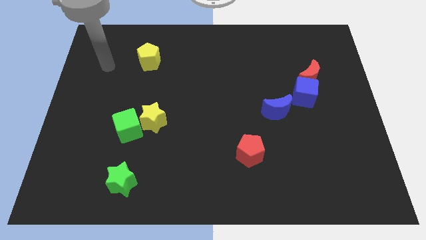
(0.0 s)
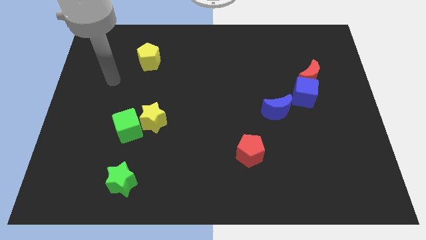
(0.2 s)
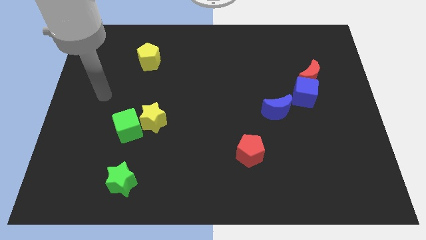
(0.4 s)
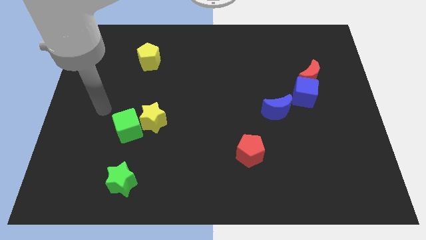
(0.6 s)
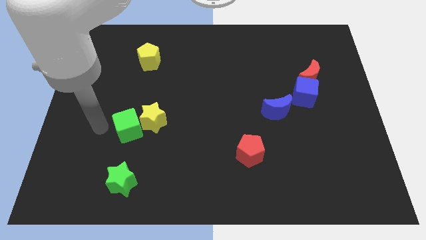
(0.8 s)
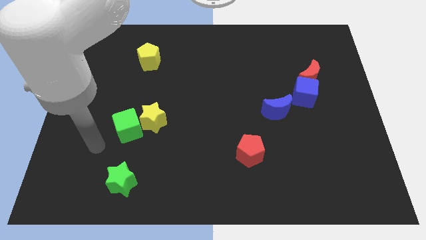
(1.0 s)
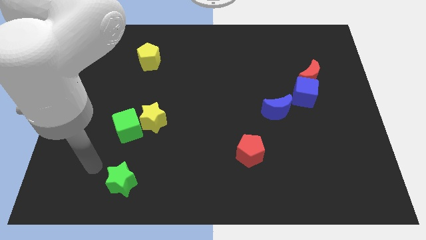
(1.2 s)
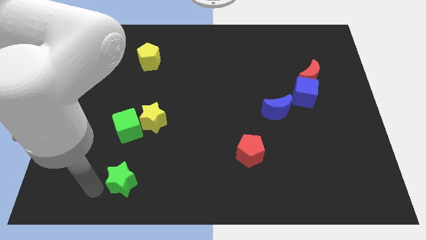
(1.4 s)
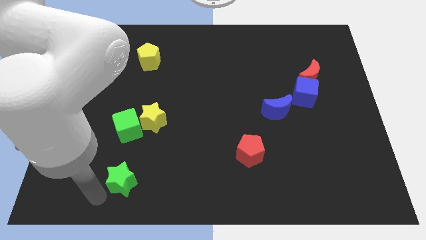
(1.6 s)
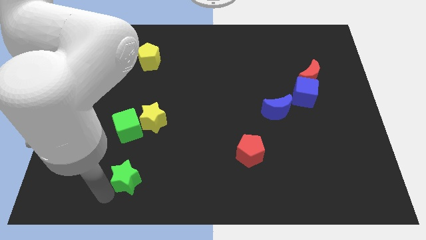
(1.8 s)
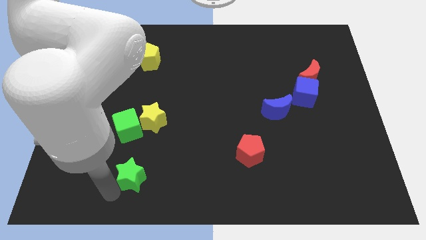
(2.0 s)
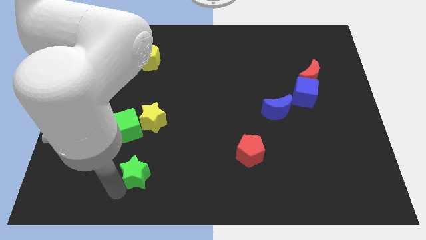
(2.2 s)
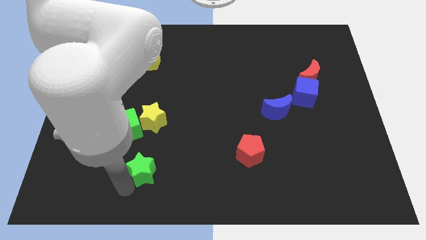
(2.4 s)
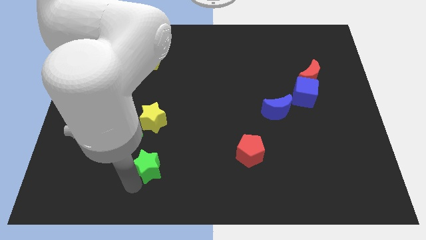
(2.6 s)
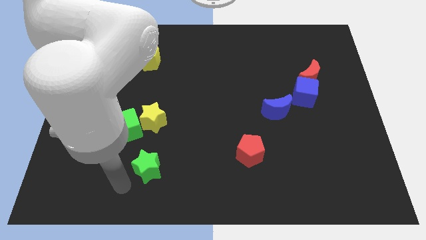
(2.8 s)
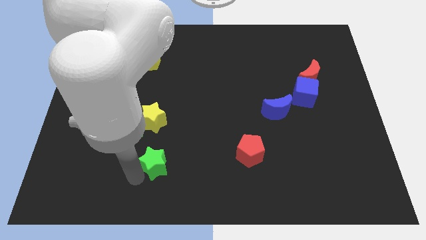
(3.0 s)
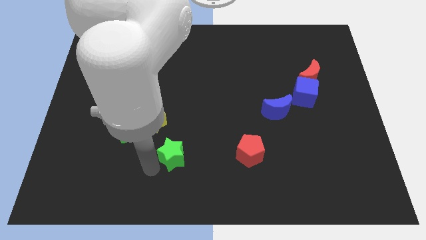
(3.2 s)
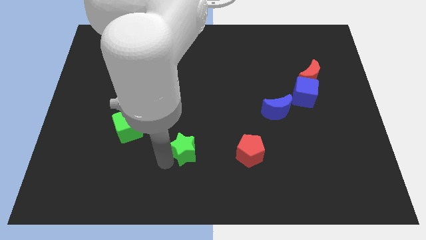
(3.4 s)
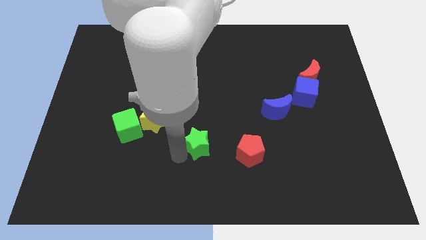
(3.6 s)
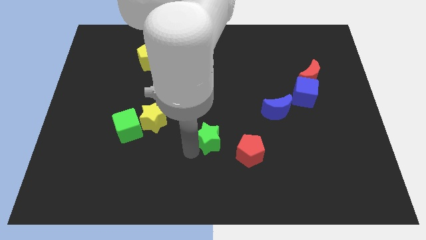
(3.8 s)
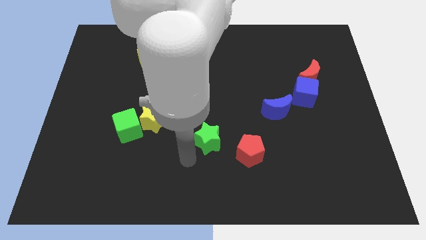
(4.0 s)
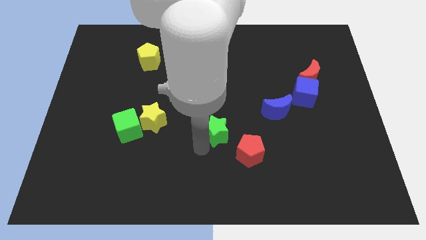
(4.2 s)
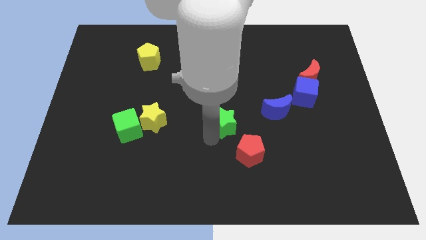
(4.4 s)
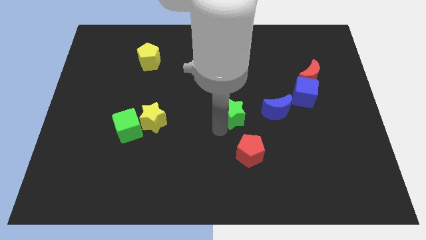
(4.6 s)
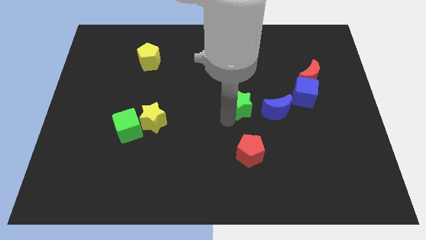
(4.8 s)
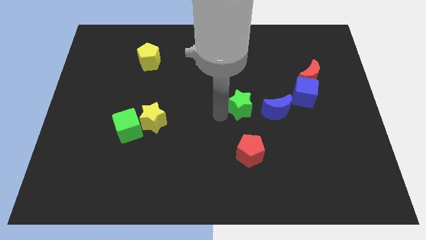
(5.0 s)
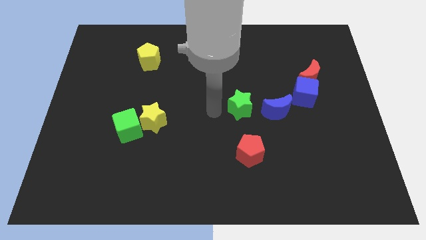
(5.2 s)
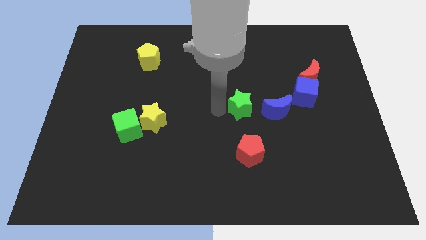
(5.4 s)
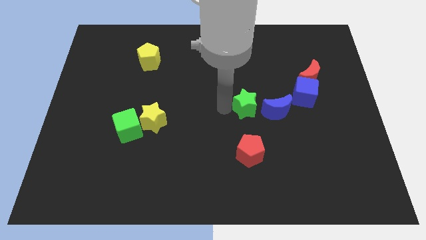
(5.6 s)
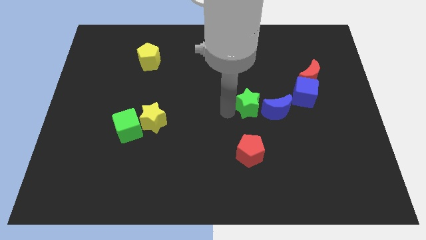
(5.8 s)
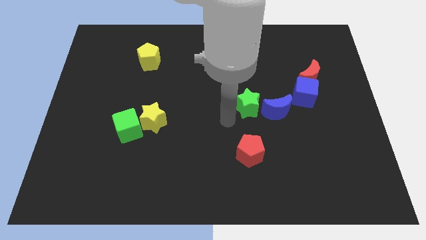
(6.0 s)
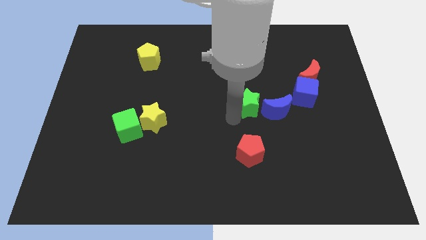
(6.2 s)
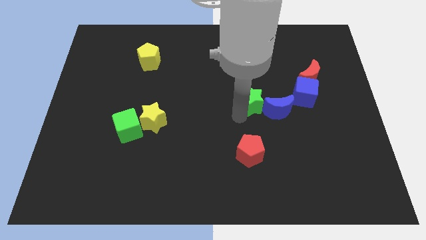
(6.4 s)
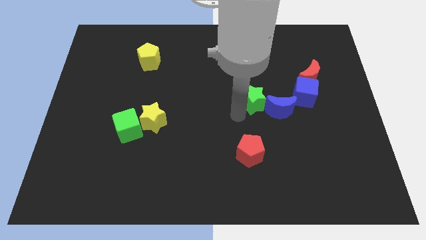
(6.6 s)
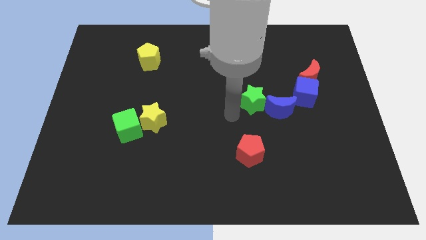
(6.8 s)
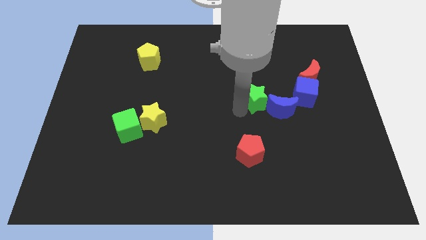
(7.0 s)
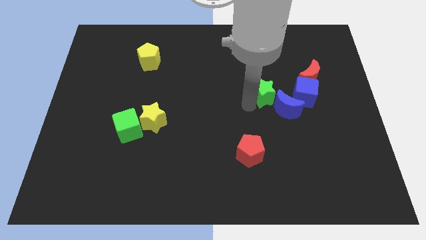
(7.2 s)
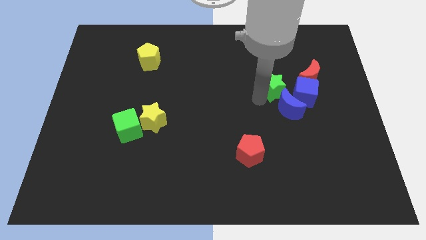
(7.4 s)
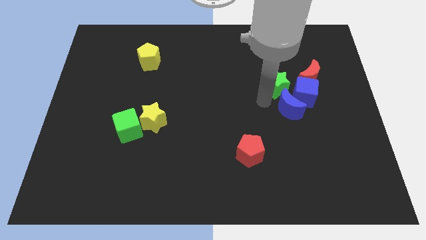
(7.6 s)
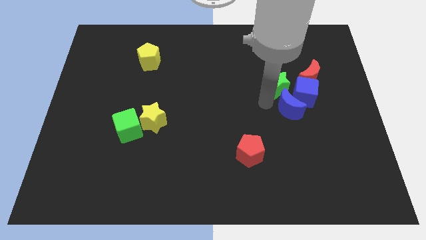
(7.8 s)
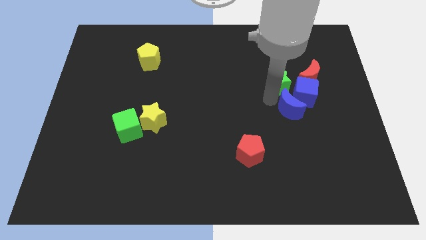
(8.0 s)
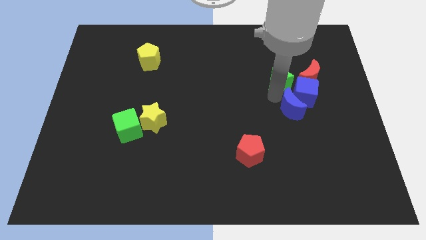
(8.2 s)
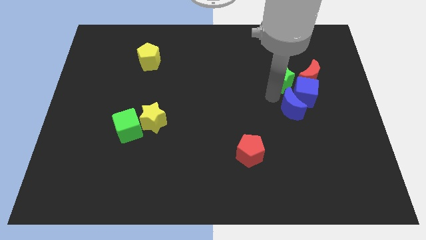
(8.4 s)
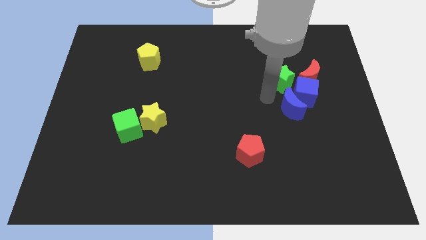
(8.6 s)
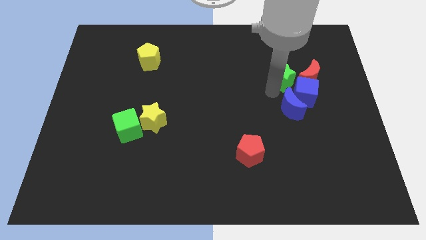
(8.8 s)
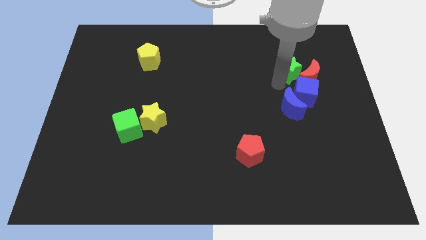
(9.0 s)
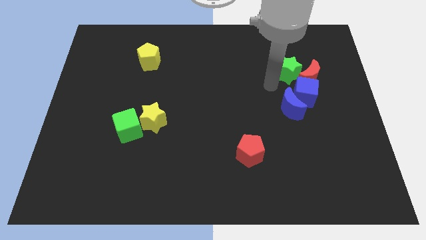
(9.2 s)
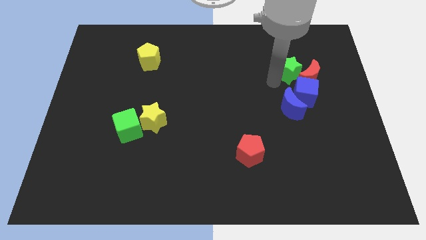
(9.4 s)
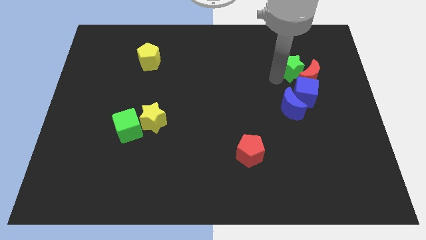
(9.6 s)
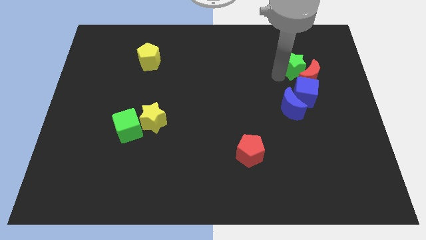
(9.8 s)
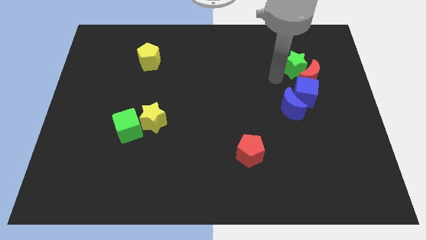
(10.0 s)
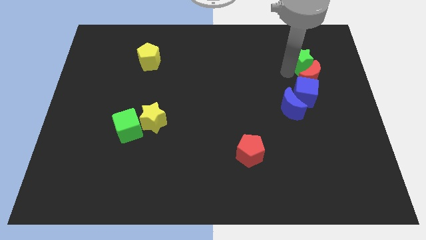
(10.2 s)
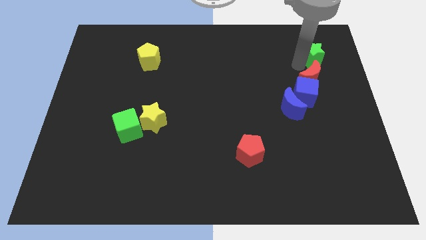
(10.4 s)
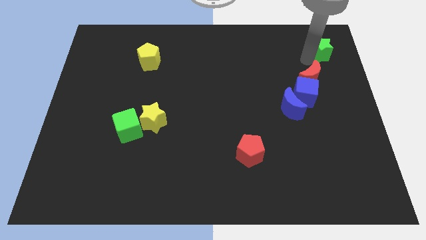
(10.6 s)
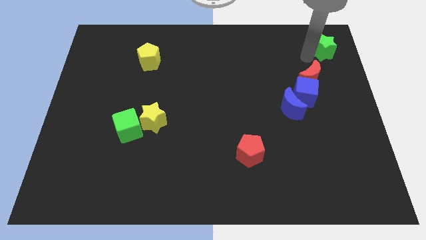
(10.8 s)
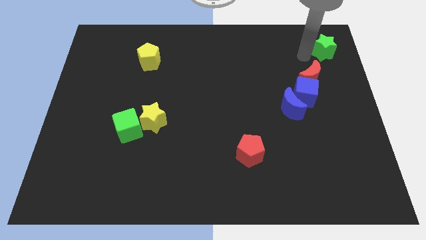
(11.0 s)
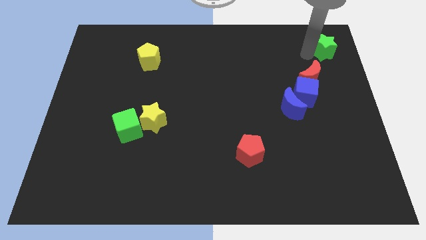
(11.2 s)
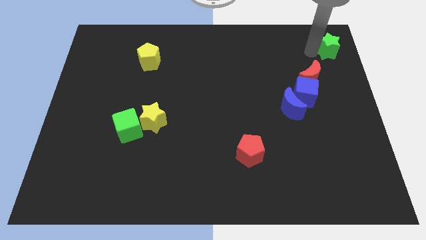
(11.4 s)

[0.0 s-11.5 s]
push the green star to the top right
